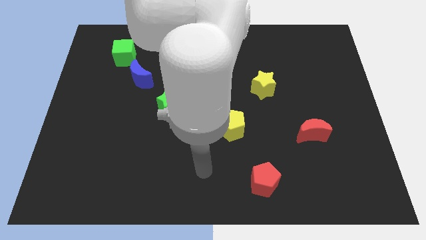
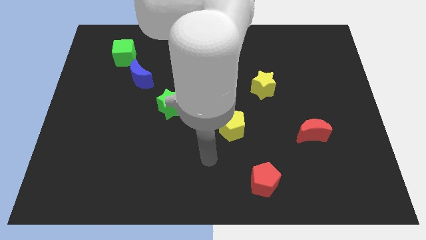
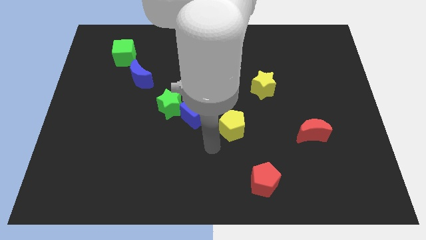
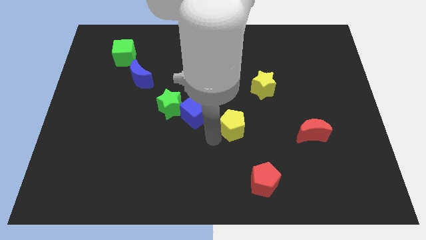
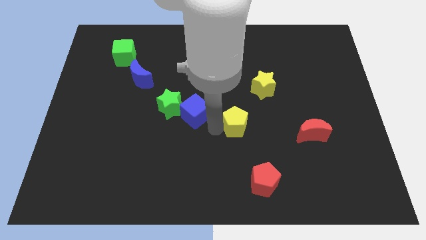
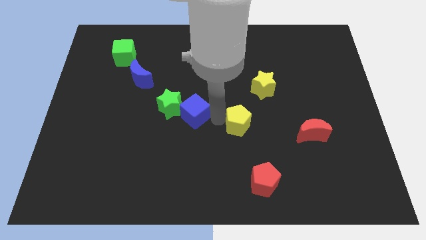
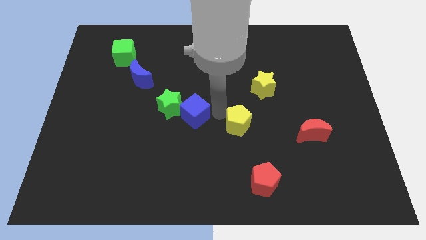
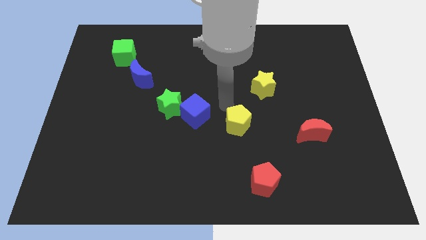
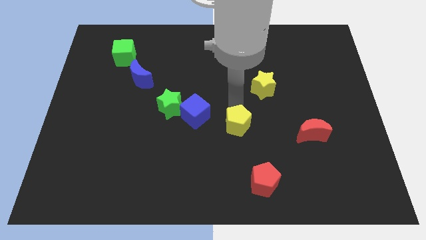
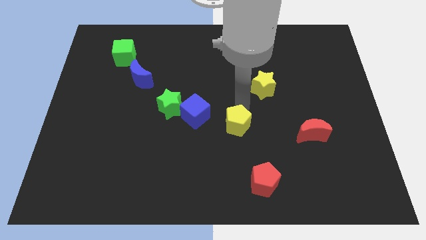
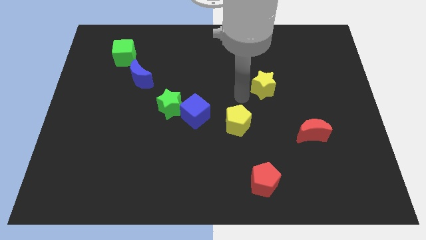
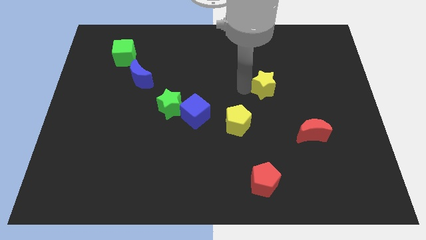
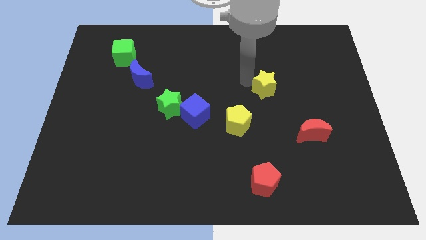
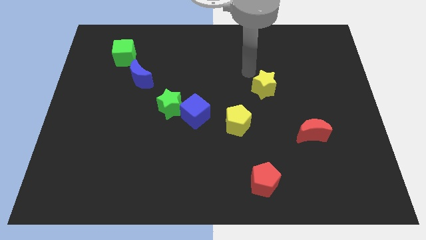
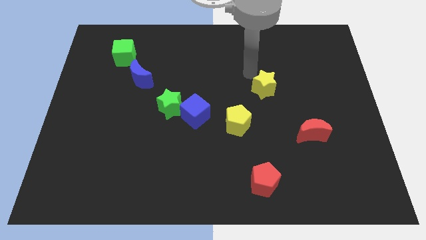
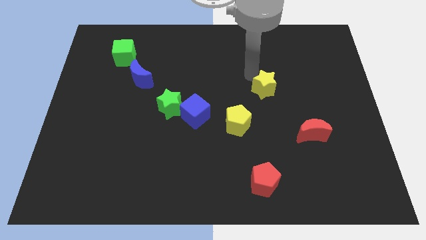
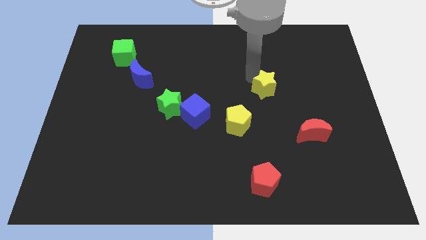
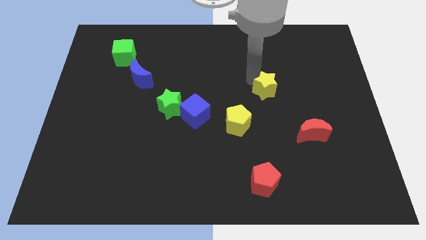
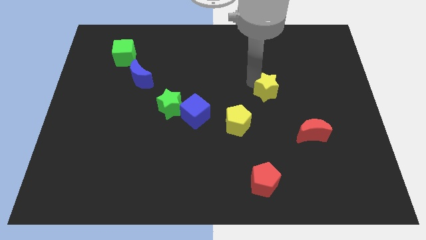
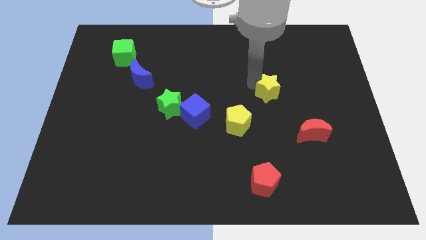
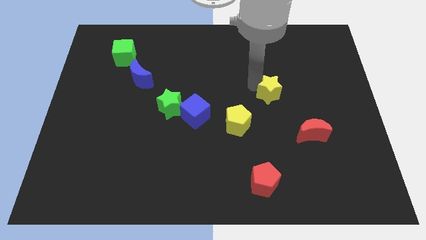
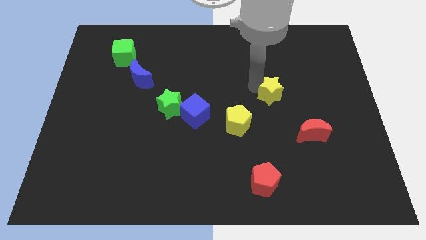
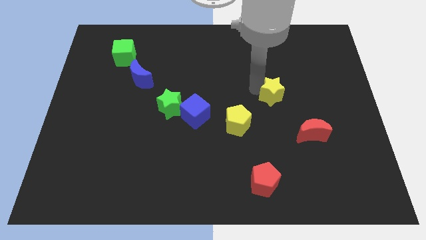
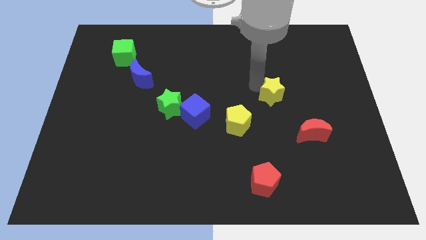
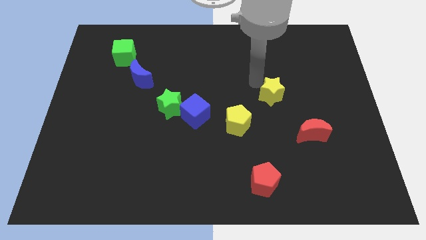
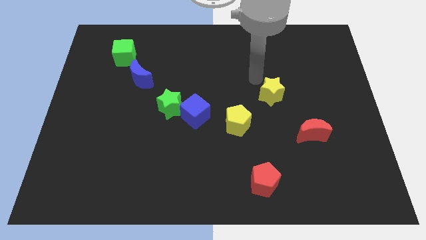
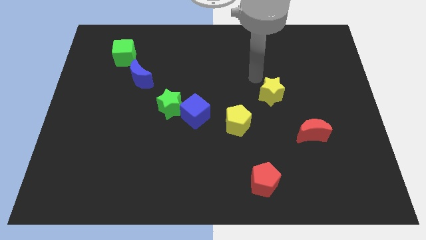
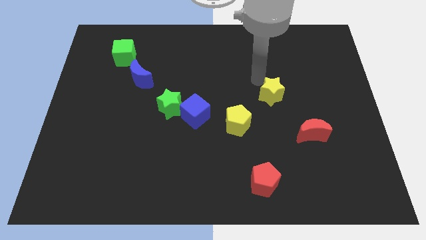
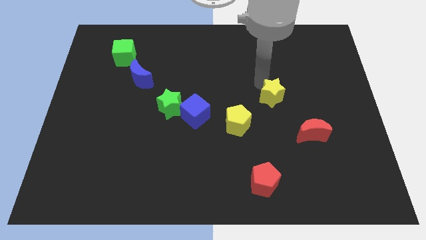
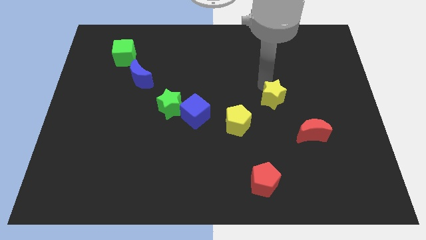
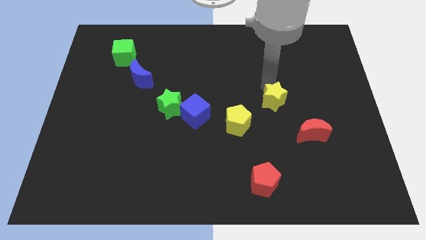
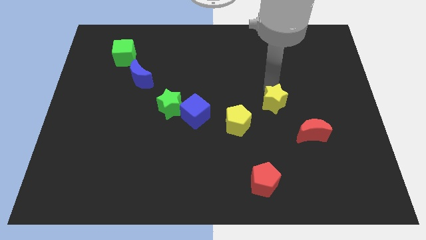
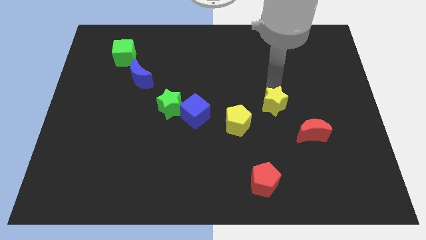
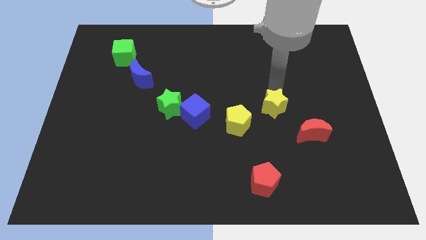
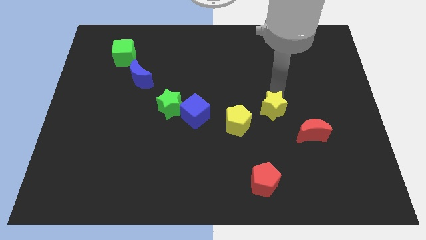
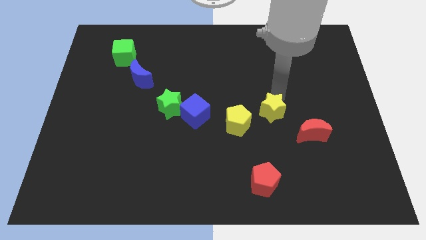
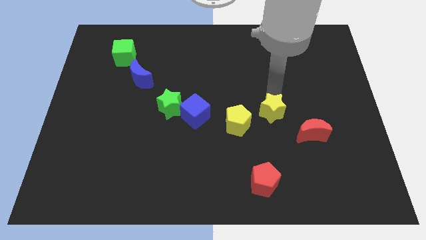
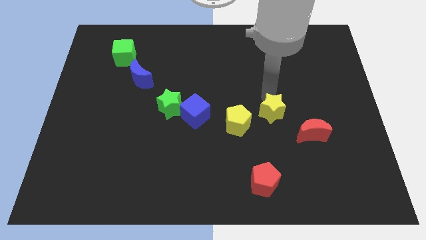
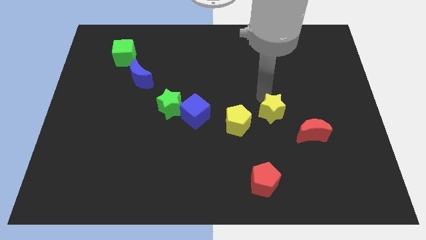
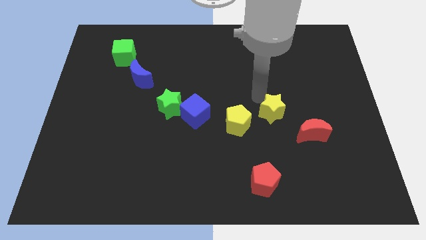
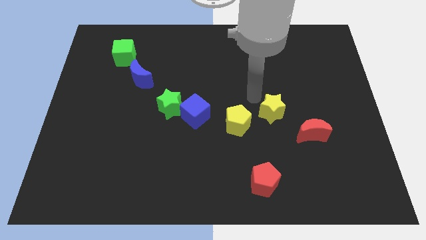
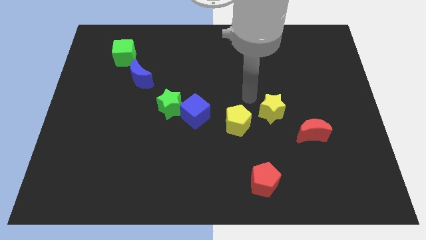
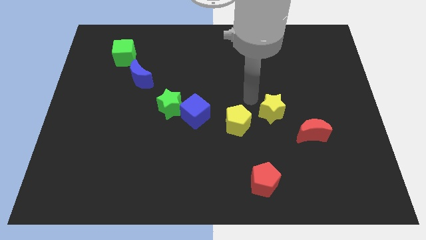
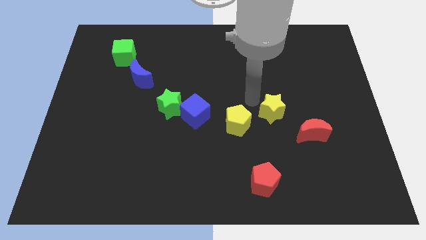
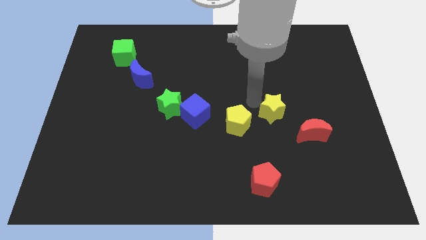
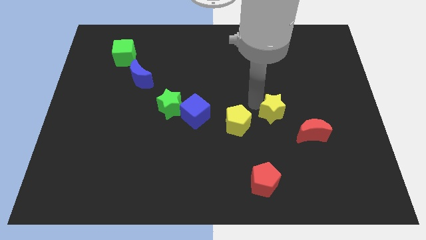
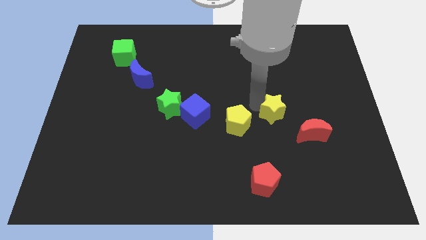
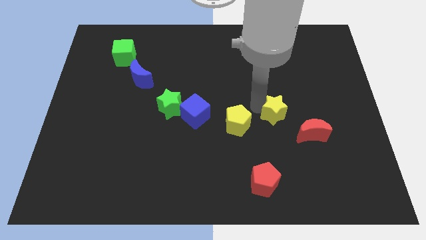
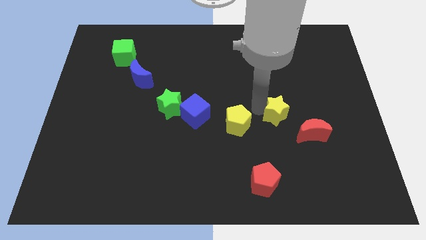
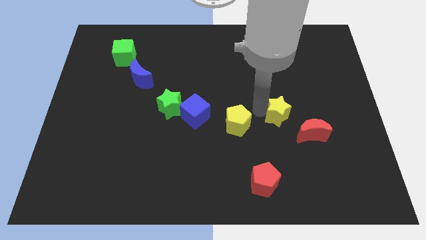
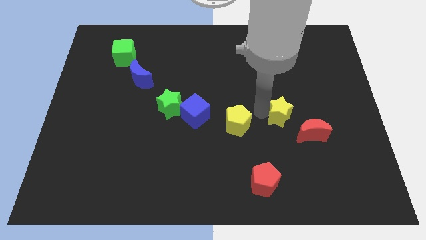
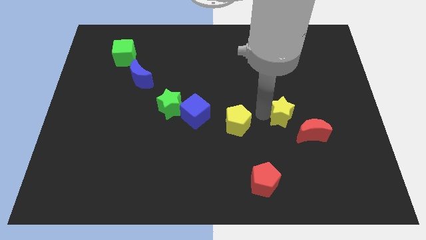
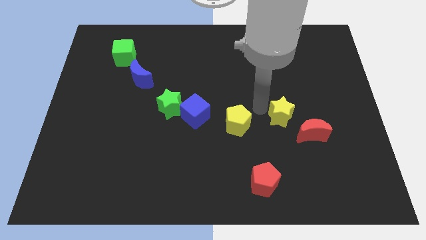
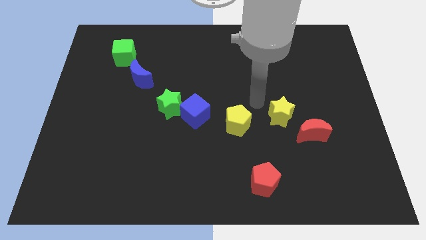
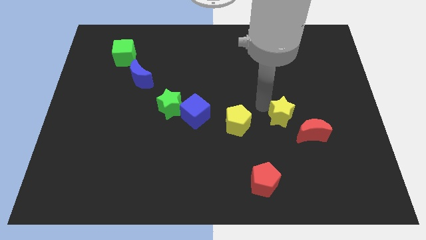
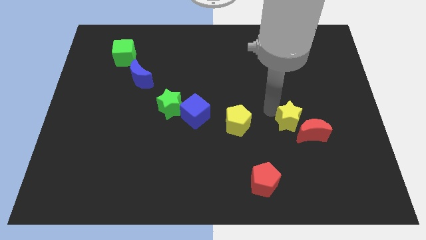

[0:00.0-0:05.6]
put the yellow star to the red moon

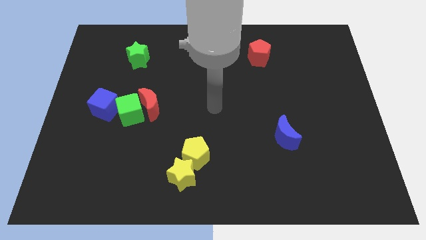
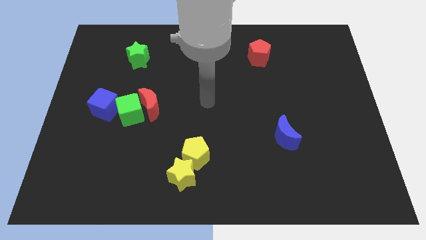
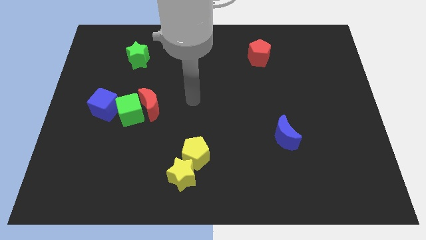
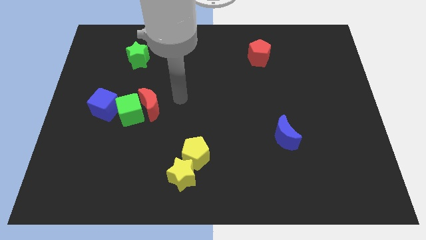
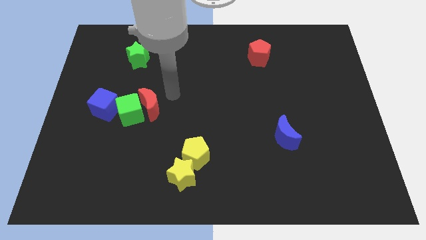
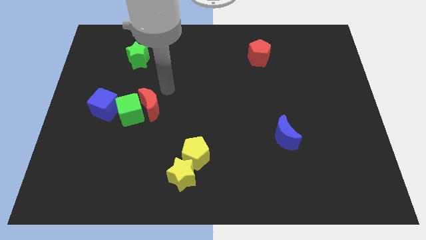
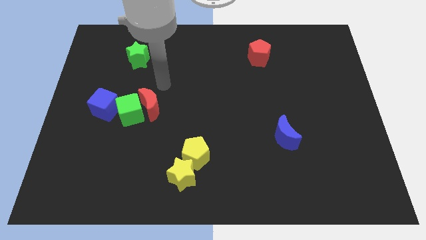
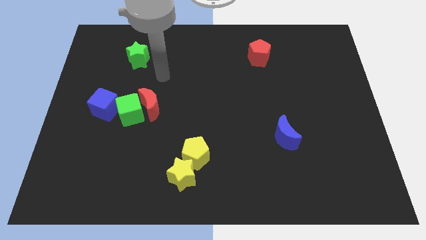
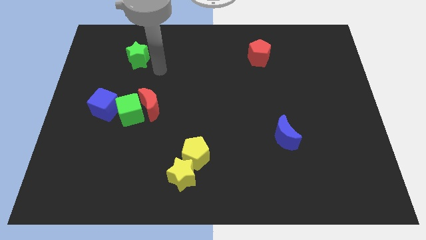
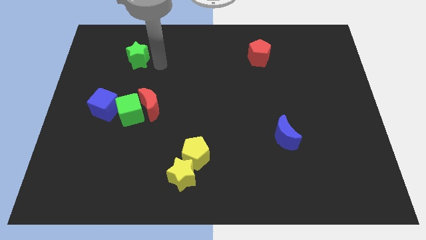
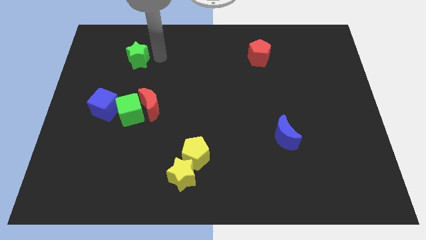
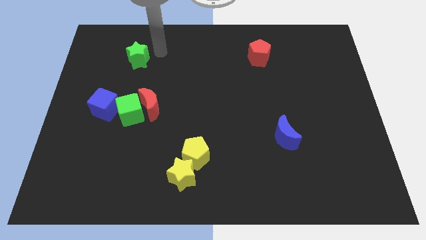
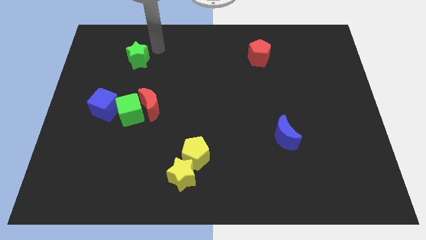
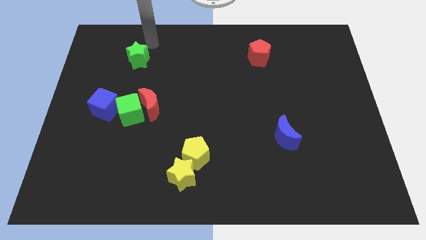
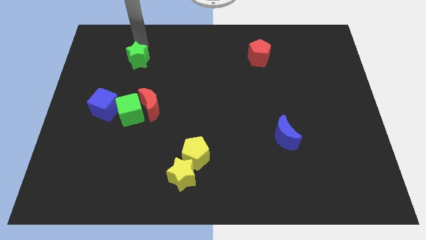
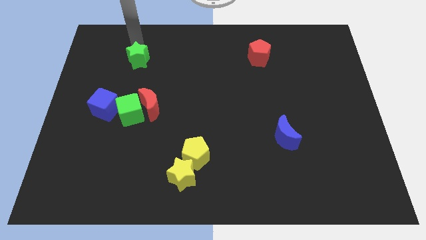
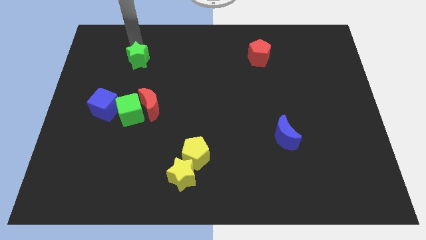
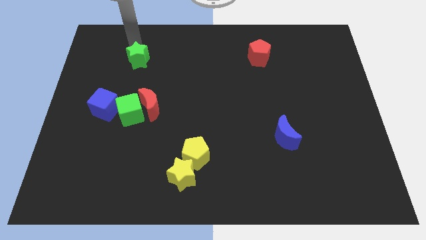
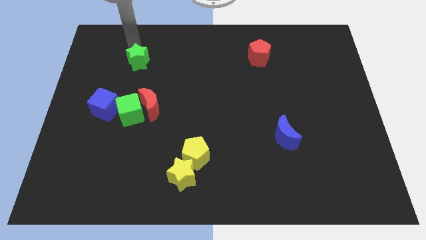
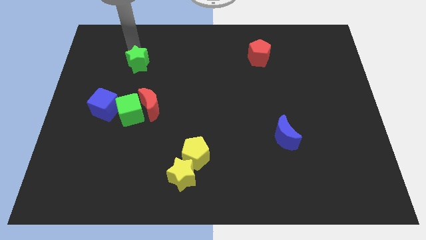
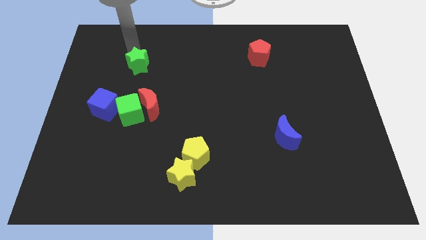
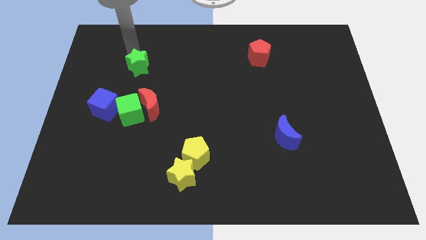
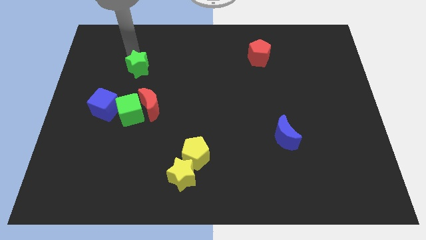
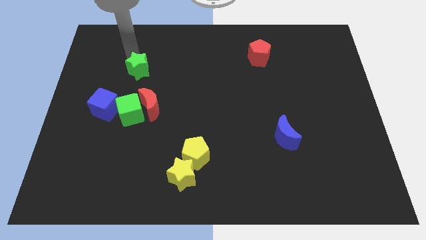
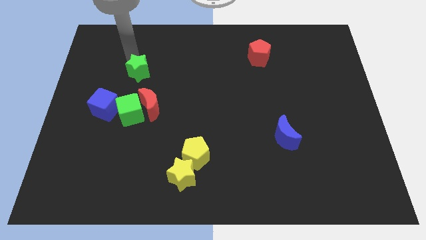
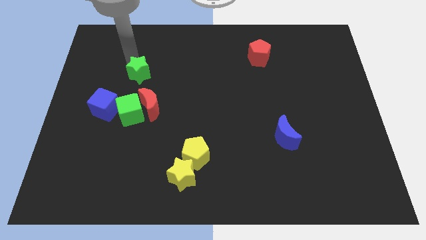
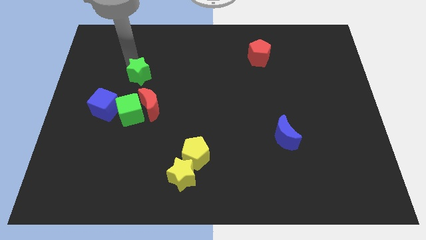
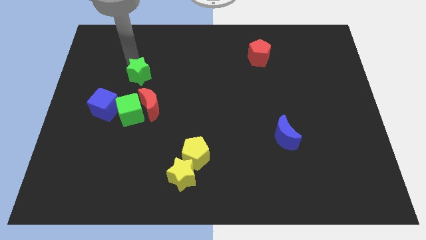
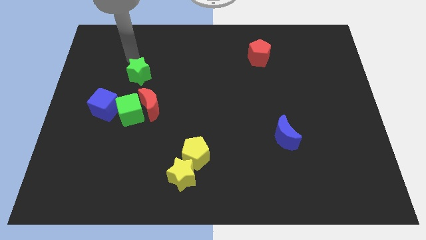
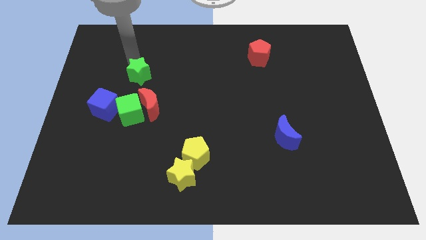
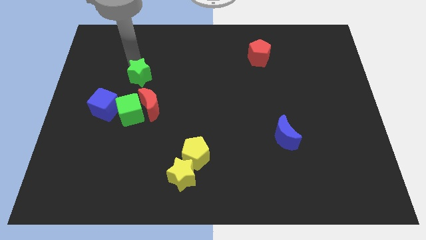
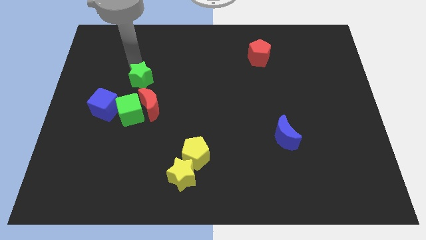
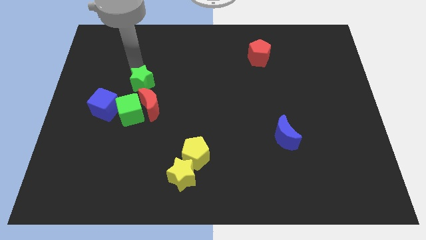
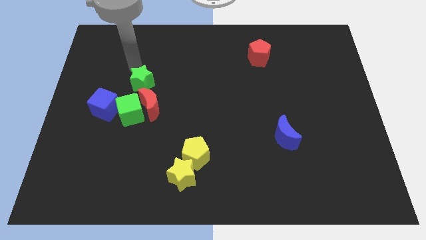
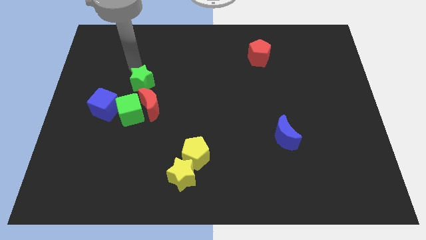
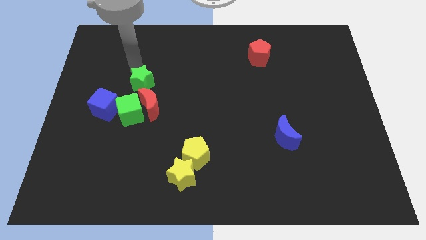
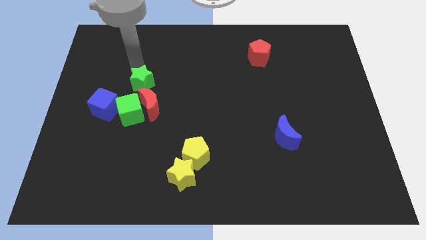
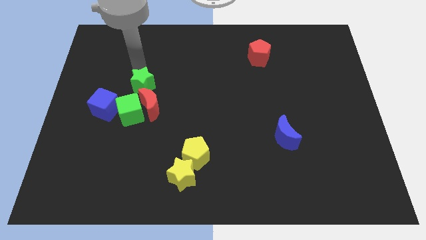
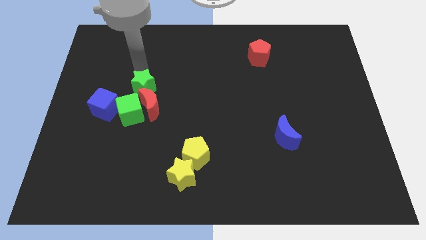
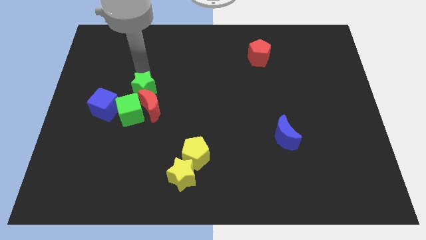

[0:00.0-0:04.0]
slide the green star next to the red moon
